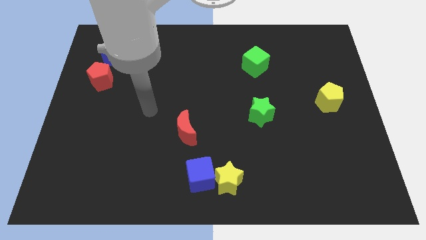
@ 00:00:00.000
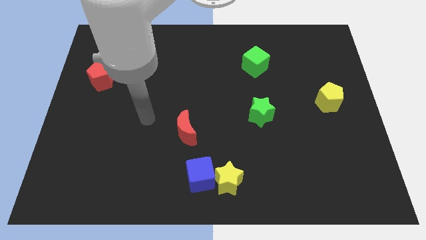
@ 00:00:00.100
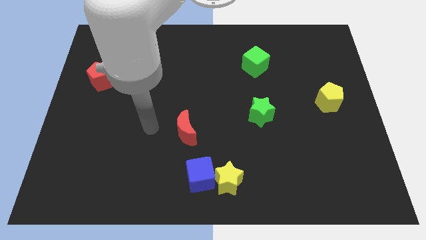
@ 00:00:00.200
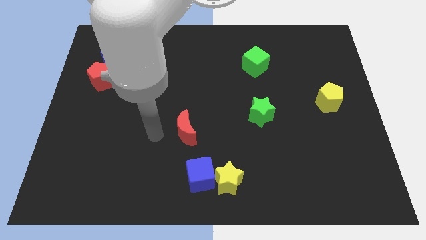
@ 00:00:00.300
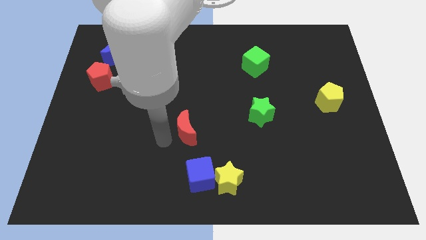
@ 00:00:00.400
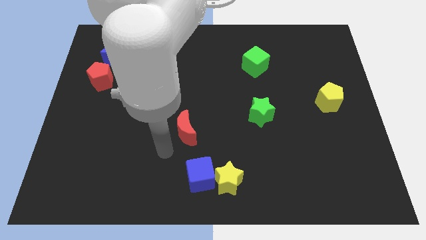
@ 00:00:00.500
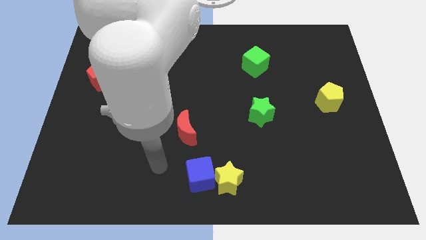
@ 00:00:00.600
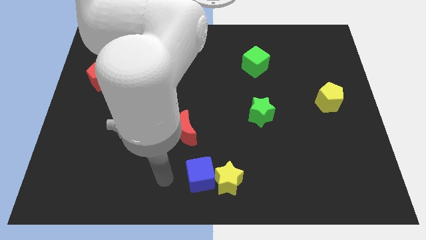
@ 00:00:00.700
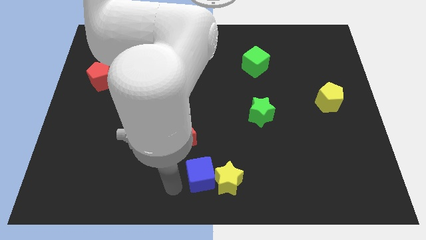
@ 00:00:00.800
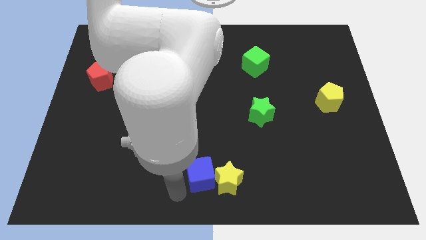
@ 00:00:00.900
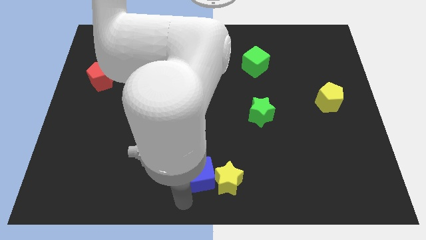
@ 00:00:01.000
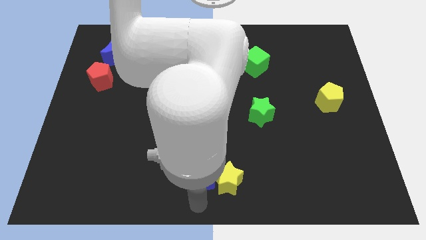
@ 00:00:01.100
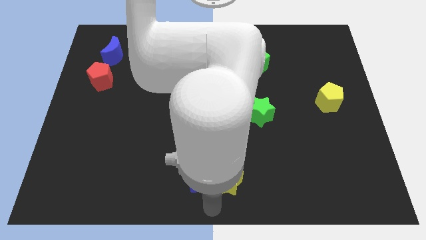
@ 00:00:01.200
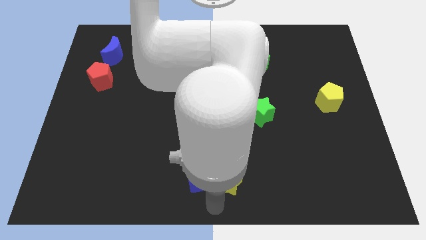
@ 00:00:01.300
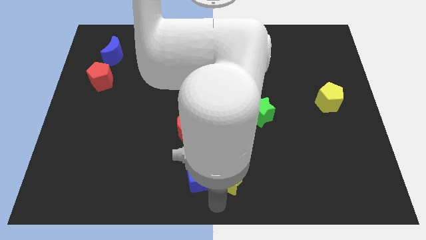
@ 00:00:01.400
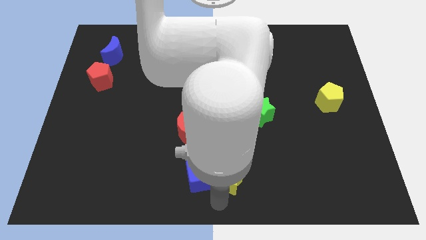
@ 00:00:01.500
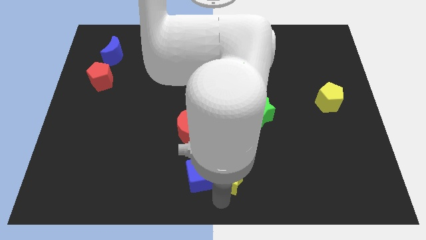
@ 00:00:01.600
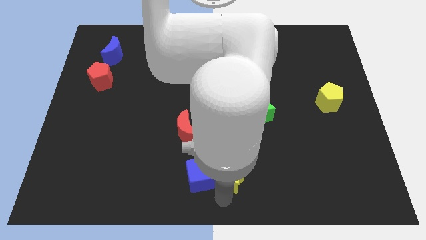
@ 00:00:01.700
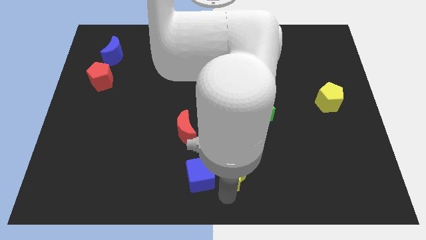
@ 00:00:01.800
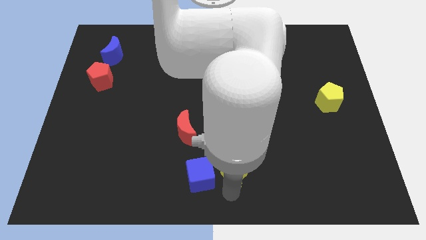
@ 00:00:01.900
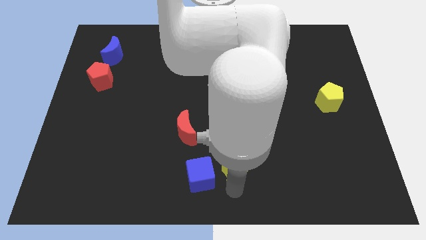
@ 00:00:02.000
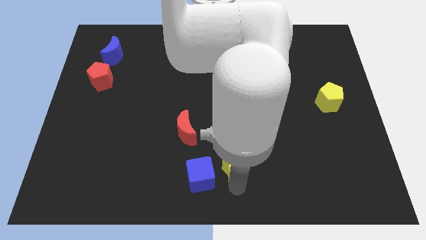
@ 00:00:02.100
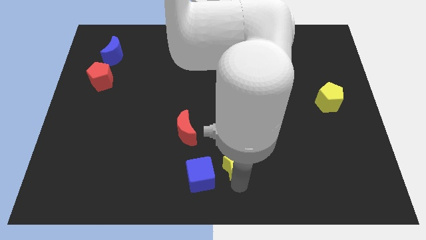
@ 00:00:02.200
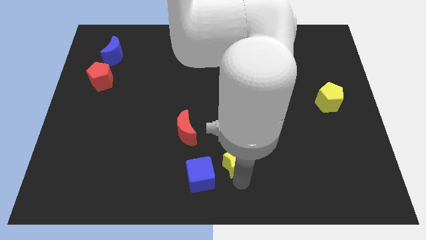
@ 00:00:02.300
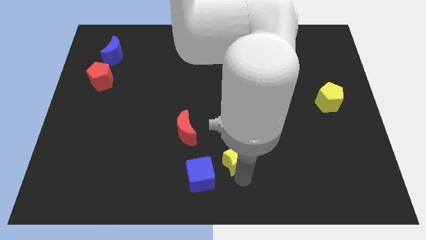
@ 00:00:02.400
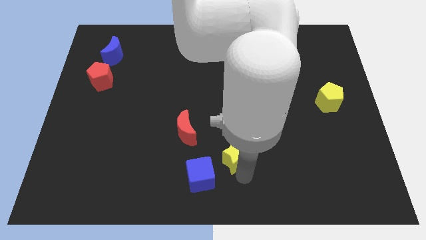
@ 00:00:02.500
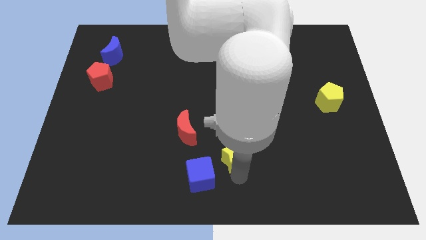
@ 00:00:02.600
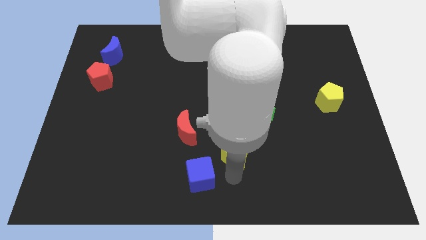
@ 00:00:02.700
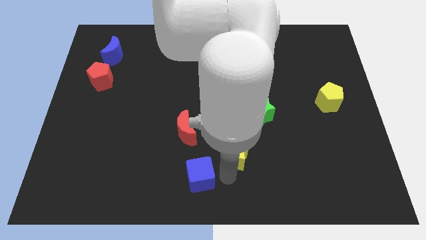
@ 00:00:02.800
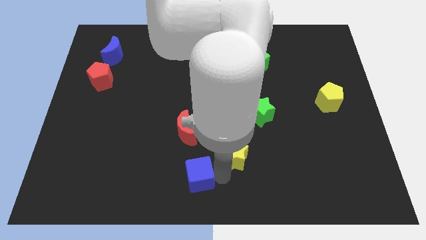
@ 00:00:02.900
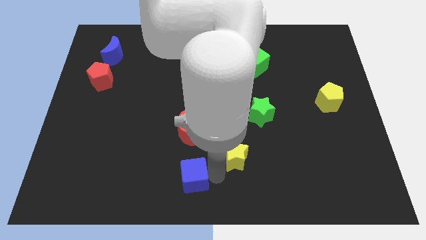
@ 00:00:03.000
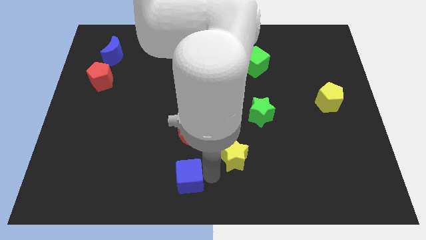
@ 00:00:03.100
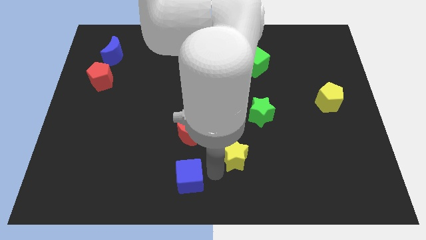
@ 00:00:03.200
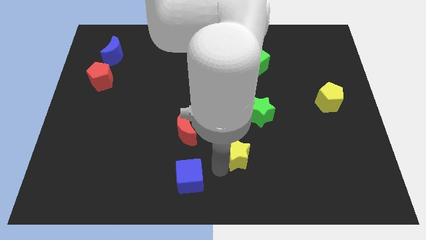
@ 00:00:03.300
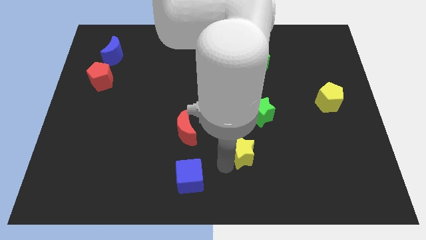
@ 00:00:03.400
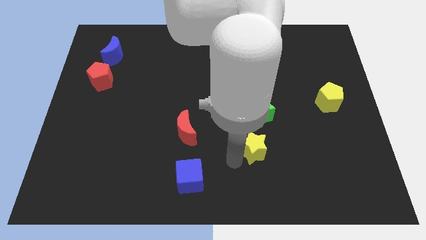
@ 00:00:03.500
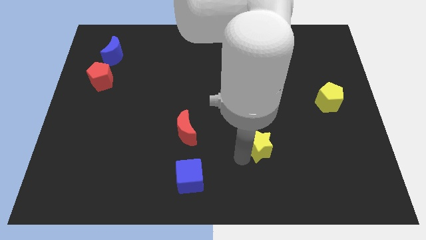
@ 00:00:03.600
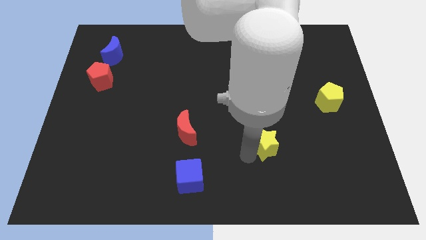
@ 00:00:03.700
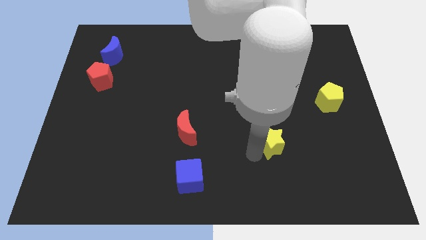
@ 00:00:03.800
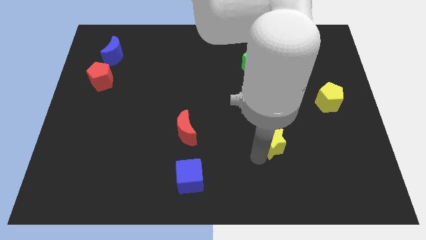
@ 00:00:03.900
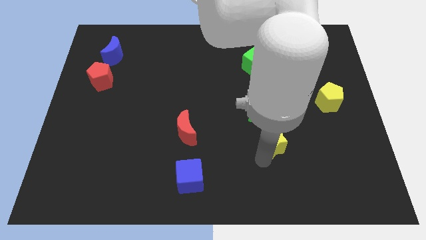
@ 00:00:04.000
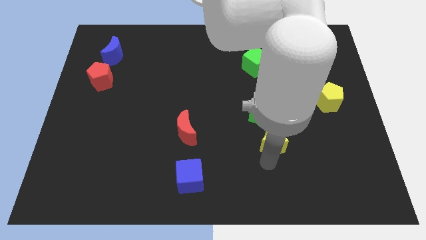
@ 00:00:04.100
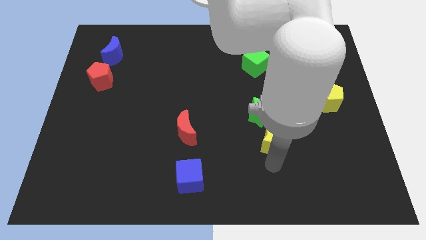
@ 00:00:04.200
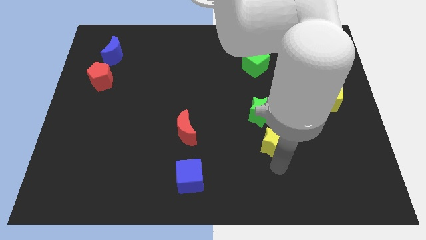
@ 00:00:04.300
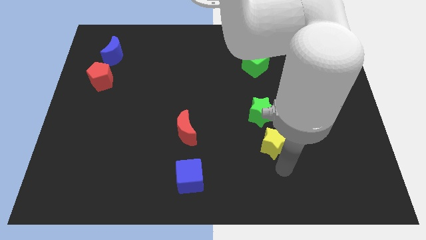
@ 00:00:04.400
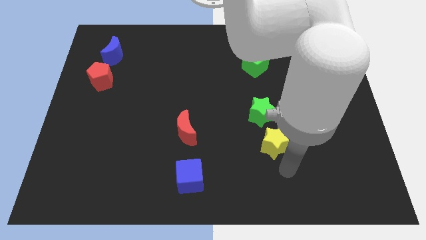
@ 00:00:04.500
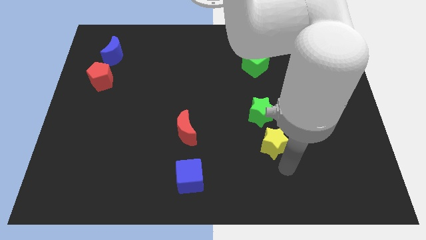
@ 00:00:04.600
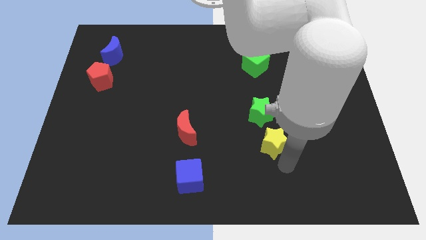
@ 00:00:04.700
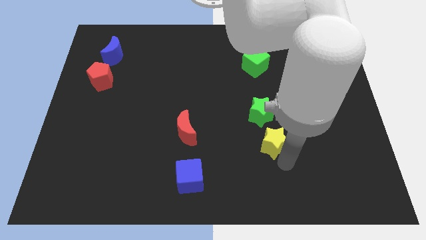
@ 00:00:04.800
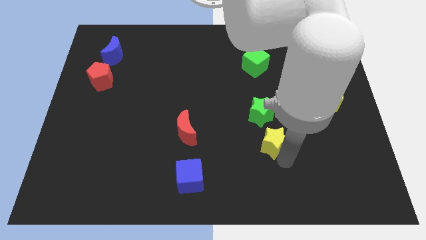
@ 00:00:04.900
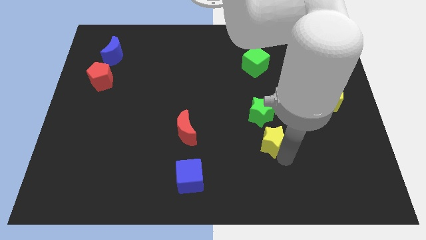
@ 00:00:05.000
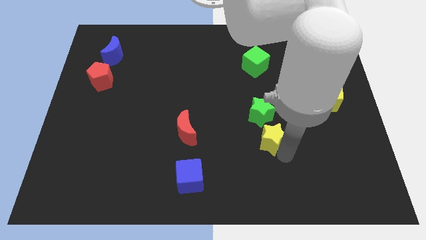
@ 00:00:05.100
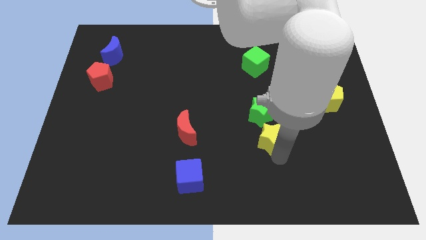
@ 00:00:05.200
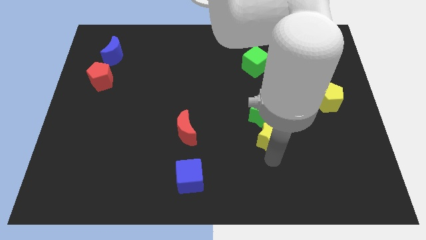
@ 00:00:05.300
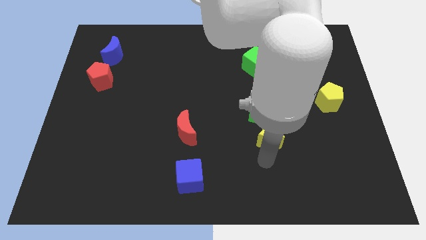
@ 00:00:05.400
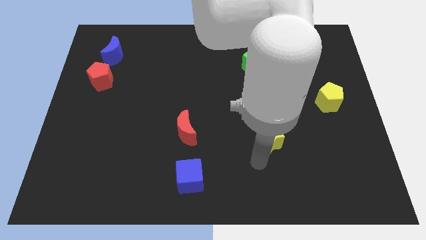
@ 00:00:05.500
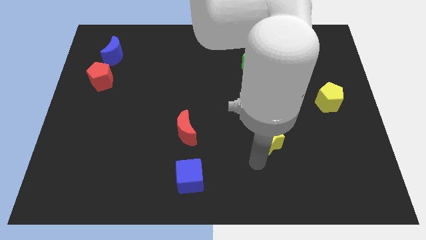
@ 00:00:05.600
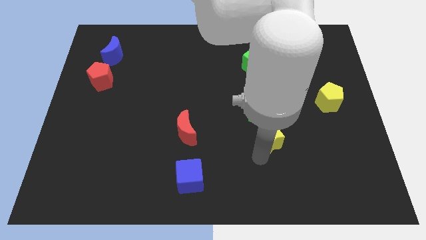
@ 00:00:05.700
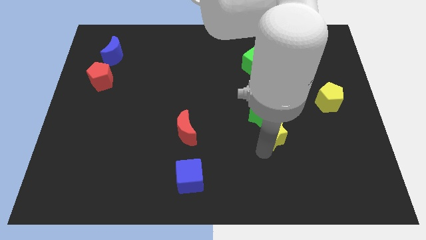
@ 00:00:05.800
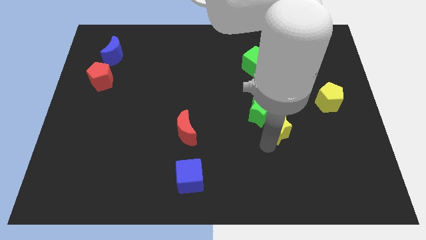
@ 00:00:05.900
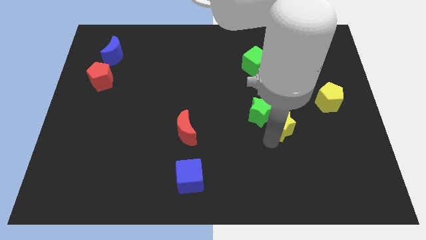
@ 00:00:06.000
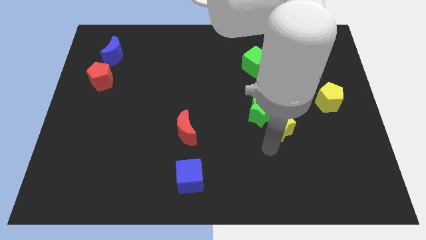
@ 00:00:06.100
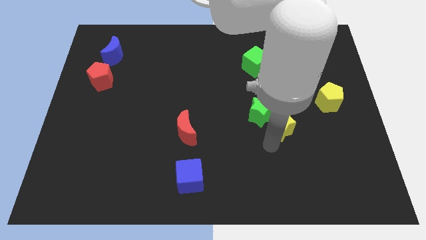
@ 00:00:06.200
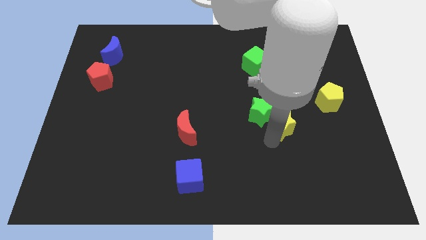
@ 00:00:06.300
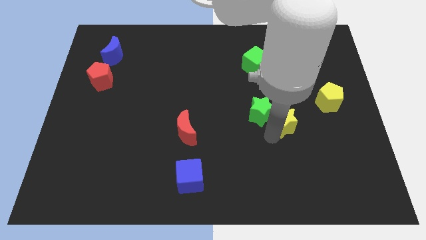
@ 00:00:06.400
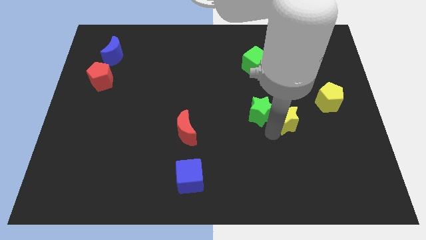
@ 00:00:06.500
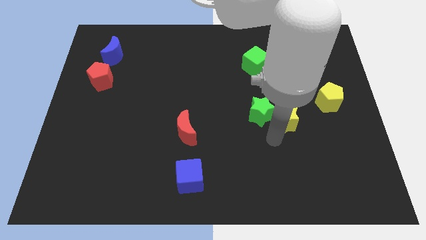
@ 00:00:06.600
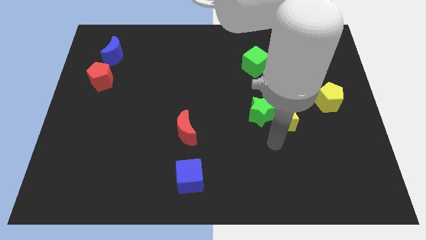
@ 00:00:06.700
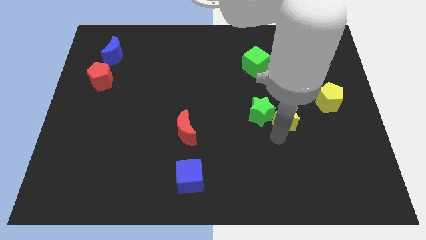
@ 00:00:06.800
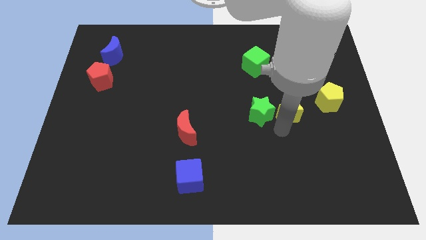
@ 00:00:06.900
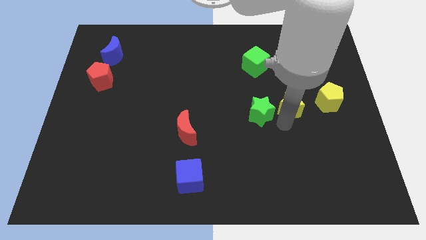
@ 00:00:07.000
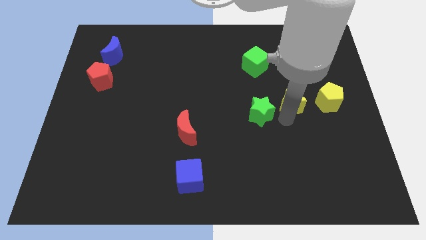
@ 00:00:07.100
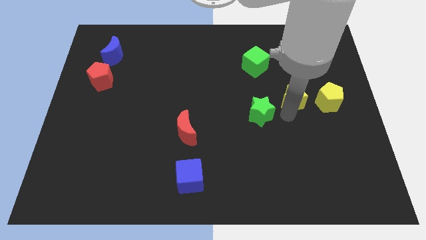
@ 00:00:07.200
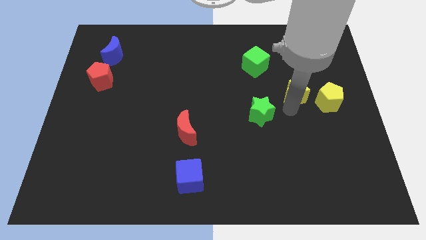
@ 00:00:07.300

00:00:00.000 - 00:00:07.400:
move the yellow star to the top left side of the yellow pentagon
